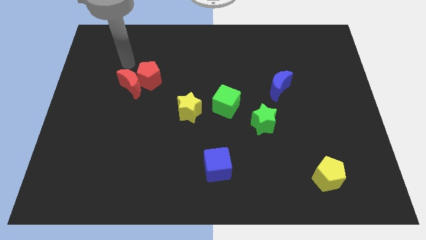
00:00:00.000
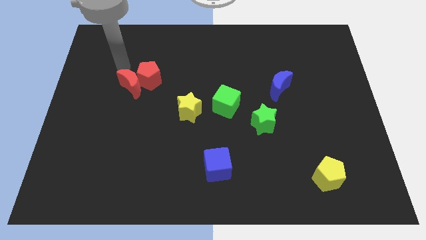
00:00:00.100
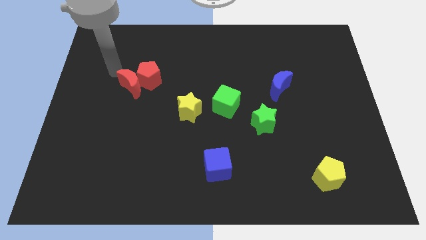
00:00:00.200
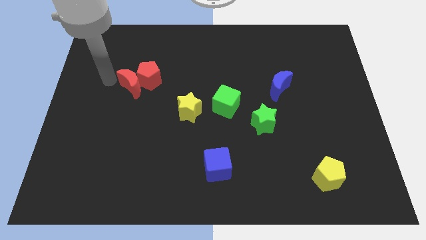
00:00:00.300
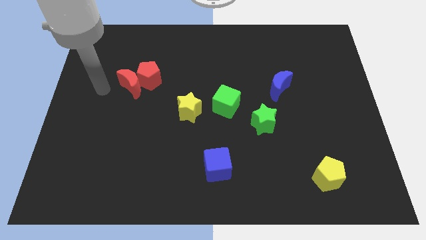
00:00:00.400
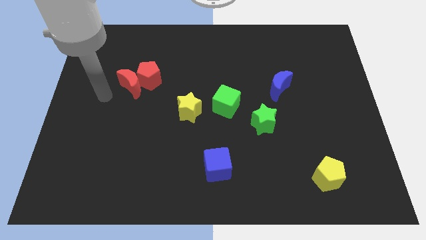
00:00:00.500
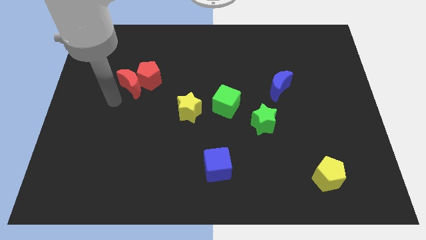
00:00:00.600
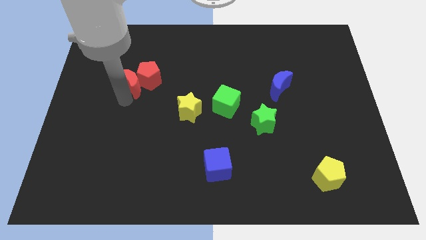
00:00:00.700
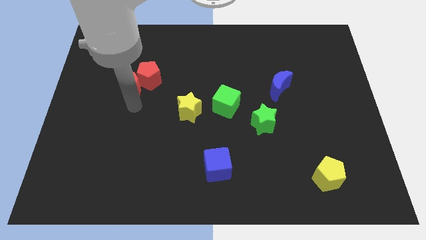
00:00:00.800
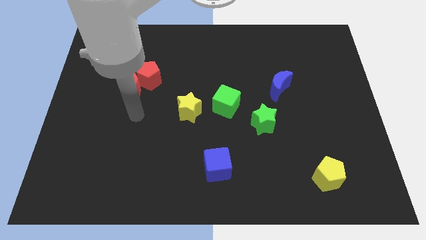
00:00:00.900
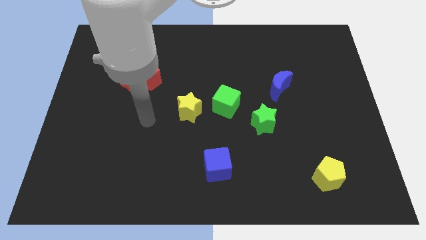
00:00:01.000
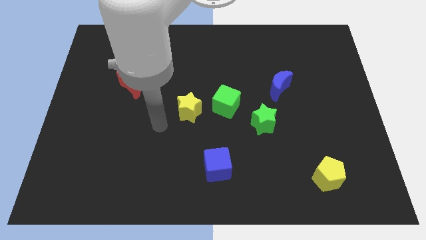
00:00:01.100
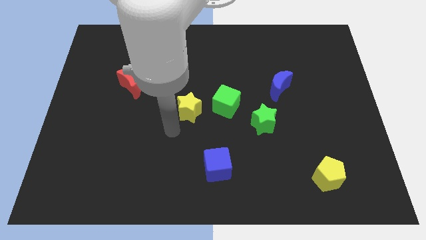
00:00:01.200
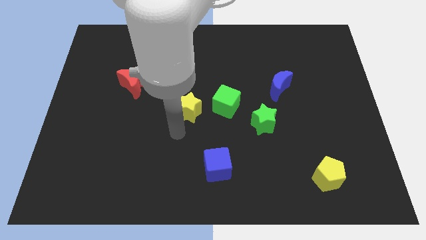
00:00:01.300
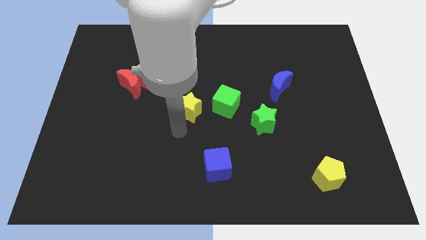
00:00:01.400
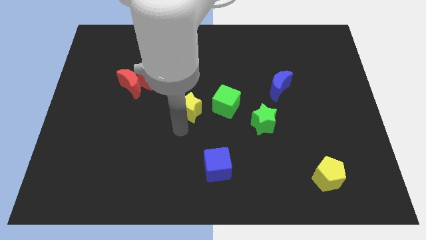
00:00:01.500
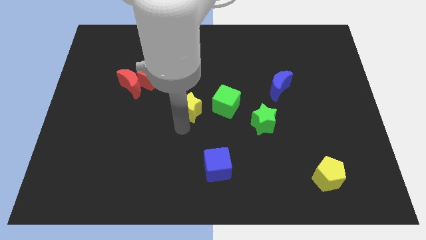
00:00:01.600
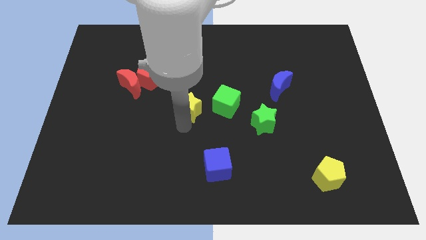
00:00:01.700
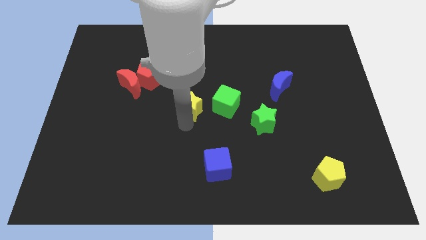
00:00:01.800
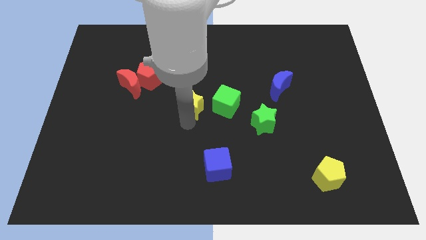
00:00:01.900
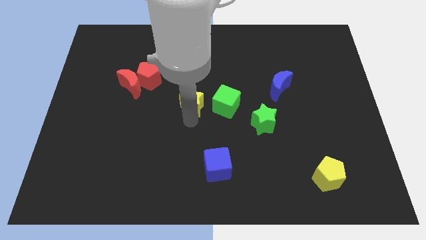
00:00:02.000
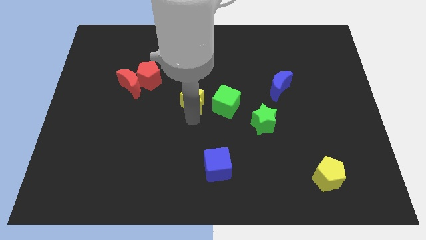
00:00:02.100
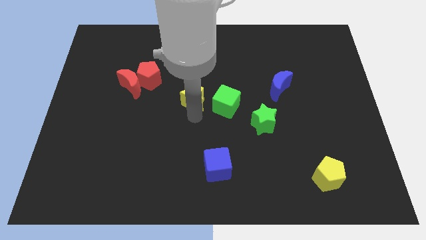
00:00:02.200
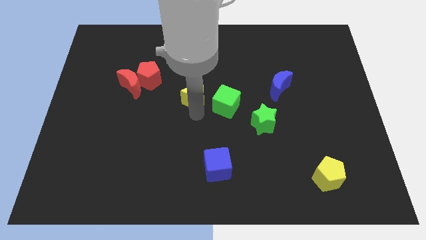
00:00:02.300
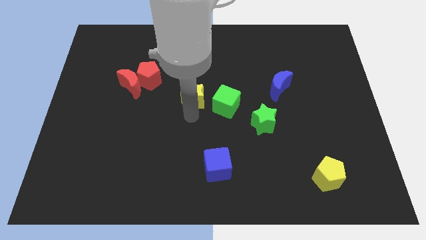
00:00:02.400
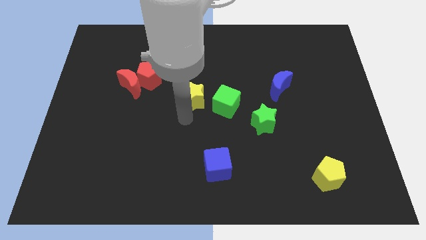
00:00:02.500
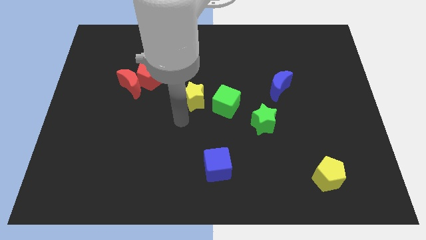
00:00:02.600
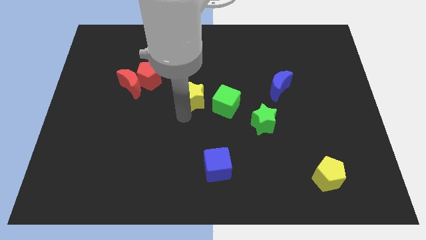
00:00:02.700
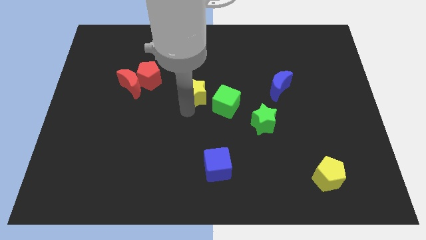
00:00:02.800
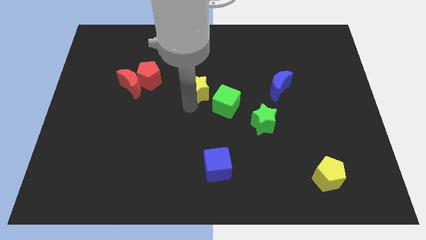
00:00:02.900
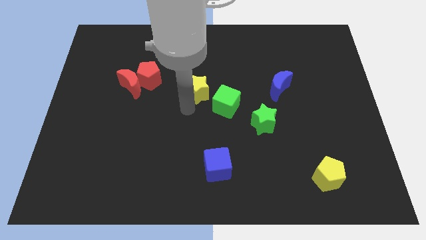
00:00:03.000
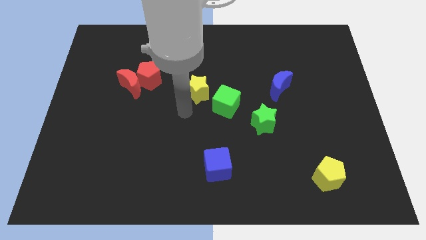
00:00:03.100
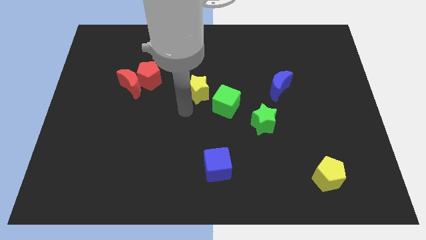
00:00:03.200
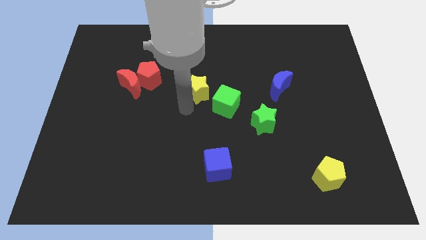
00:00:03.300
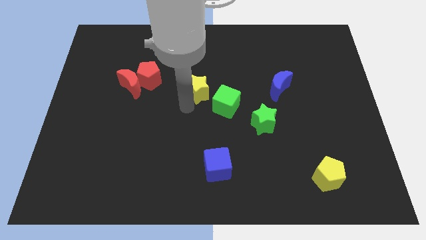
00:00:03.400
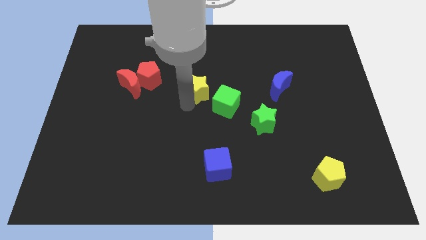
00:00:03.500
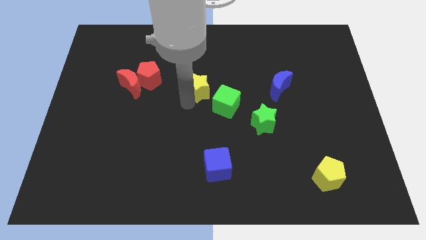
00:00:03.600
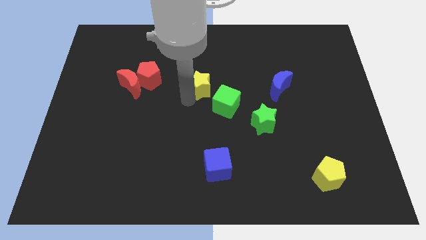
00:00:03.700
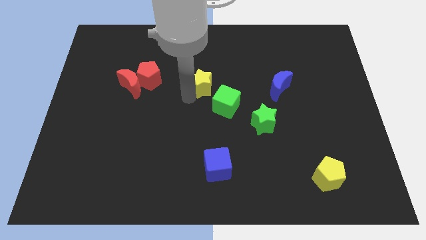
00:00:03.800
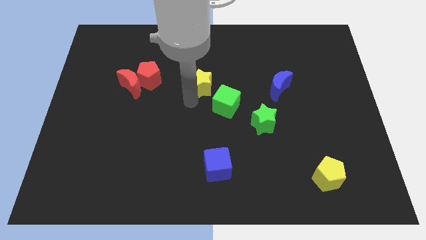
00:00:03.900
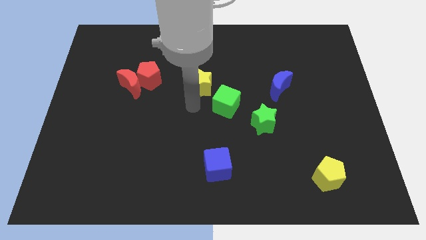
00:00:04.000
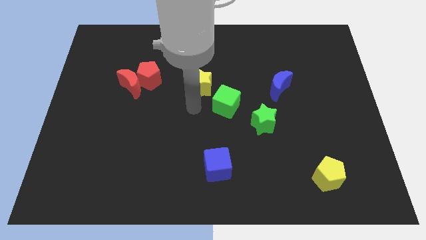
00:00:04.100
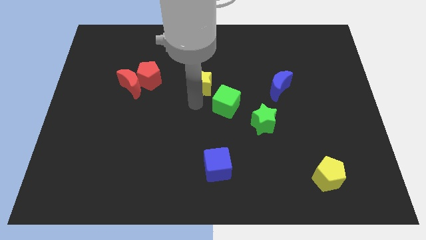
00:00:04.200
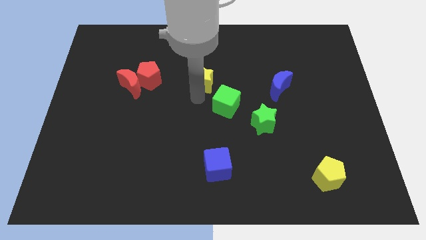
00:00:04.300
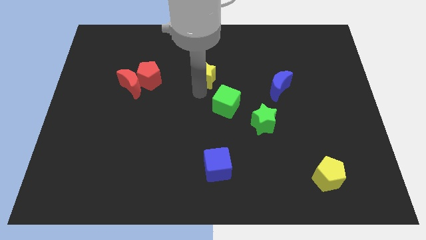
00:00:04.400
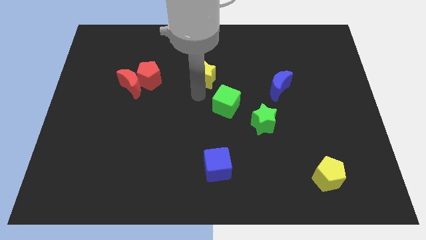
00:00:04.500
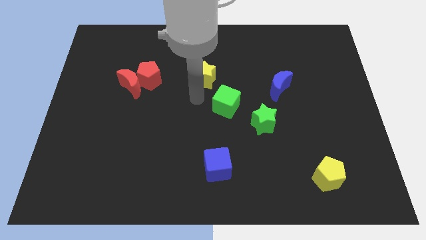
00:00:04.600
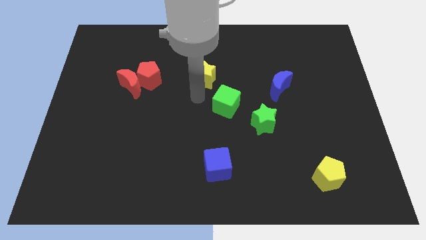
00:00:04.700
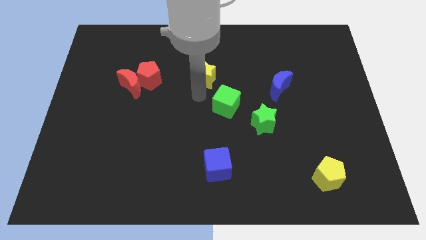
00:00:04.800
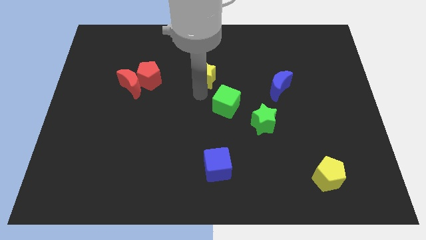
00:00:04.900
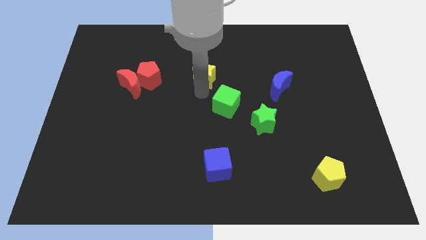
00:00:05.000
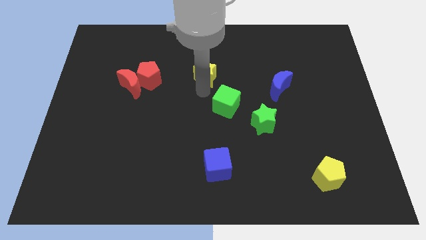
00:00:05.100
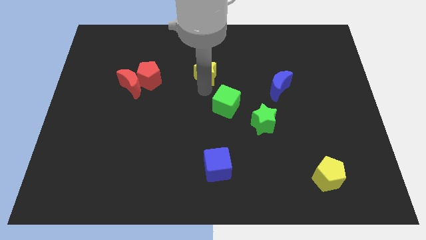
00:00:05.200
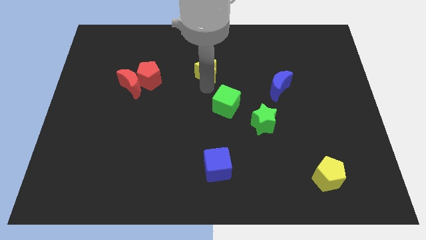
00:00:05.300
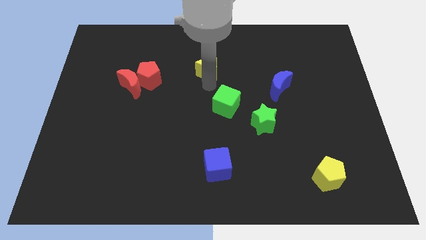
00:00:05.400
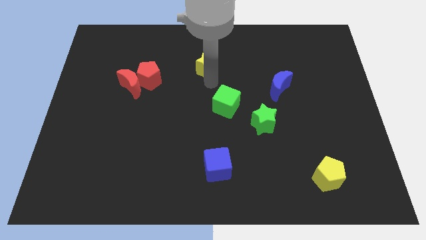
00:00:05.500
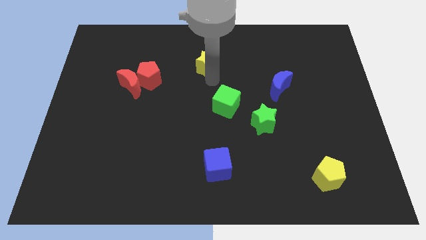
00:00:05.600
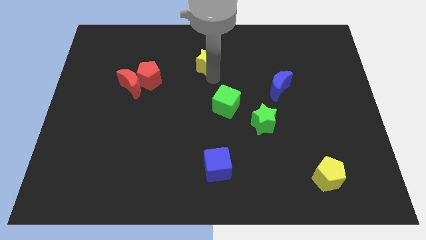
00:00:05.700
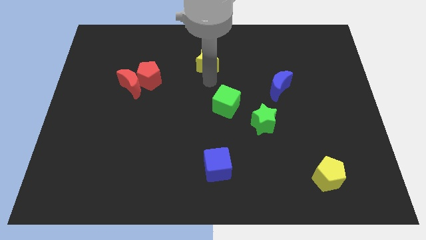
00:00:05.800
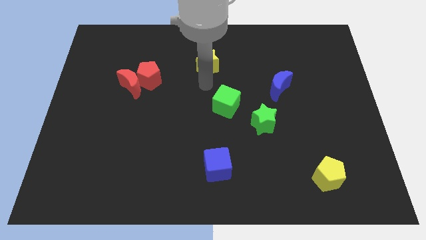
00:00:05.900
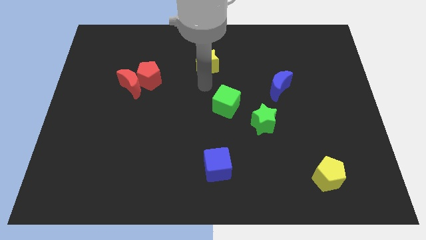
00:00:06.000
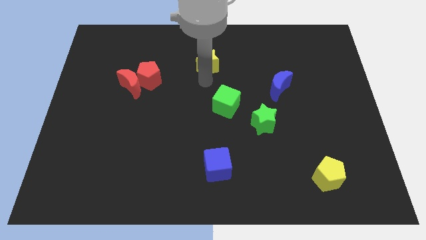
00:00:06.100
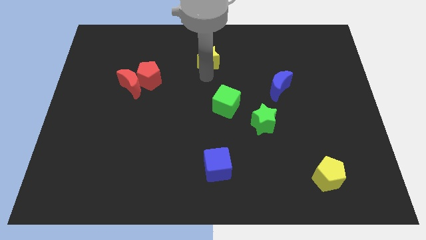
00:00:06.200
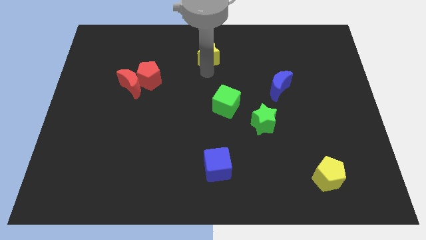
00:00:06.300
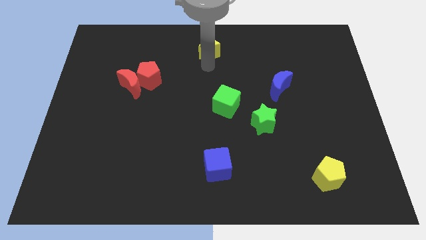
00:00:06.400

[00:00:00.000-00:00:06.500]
slide the yellow star to the top side

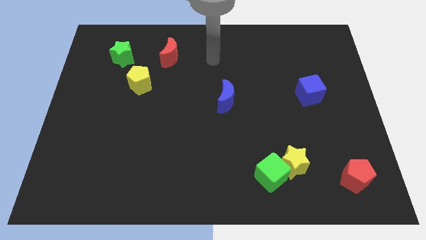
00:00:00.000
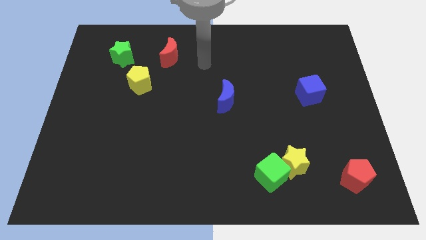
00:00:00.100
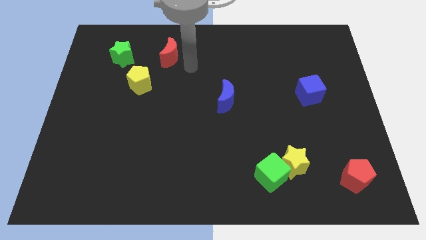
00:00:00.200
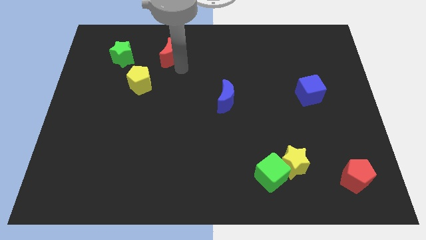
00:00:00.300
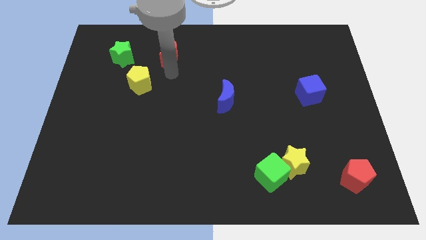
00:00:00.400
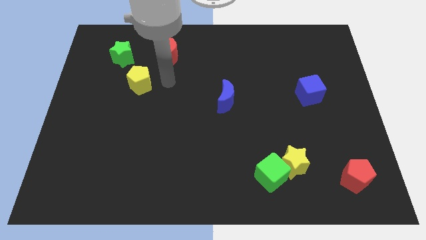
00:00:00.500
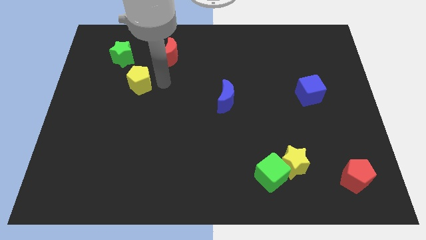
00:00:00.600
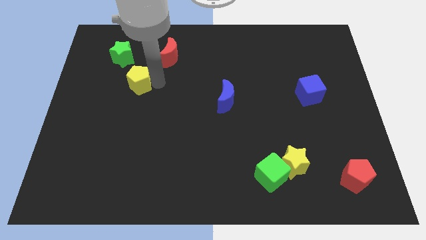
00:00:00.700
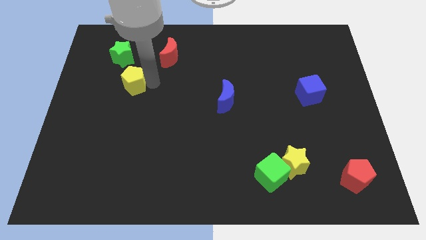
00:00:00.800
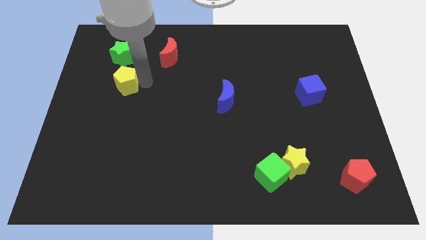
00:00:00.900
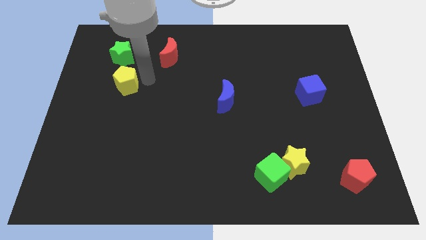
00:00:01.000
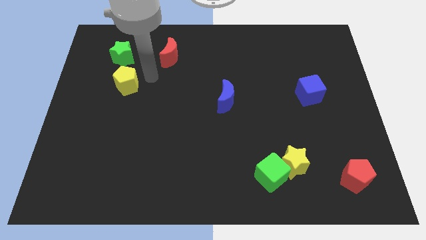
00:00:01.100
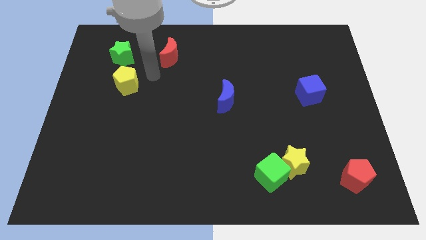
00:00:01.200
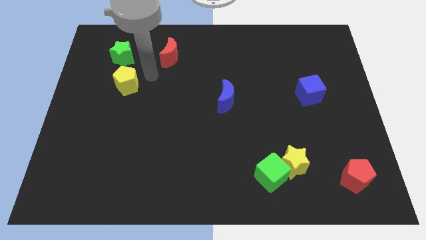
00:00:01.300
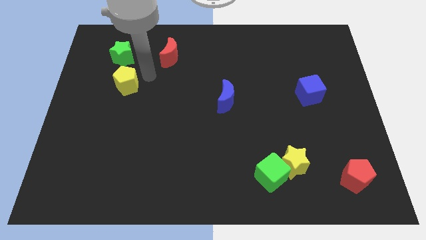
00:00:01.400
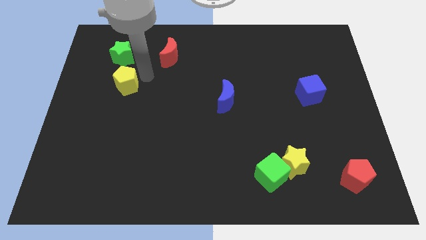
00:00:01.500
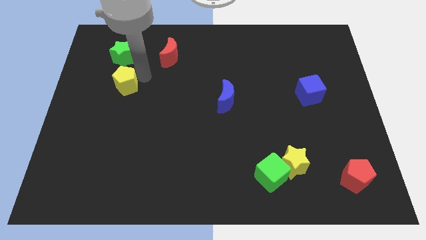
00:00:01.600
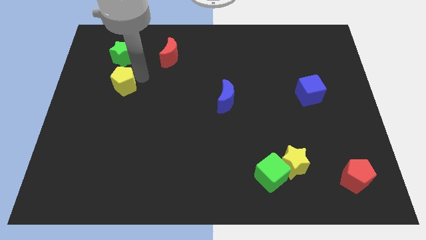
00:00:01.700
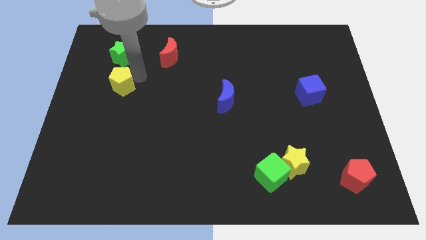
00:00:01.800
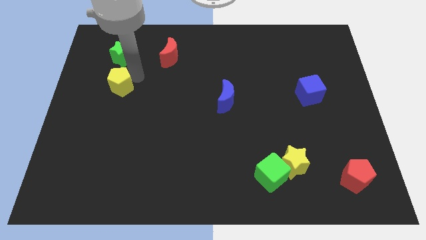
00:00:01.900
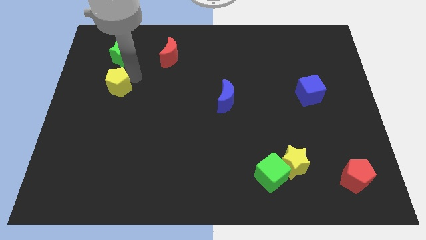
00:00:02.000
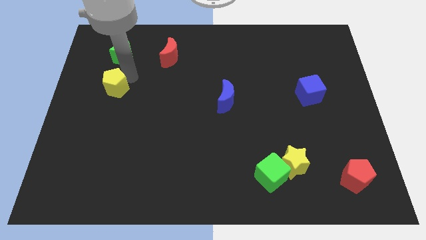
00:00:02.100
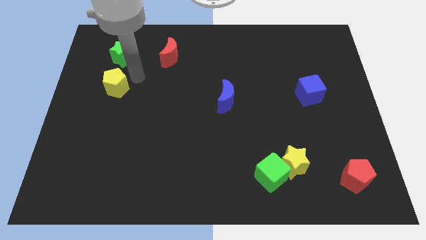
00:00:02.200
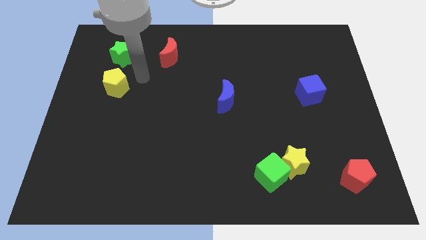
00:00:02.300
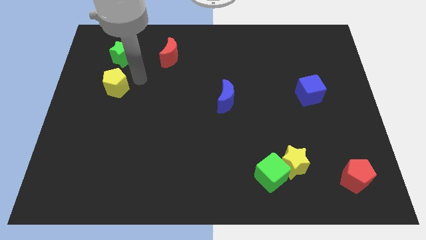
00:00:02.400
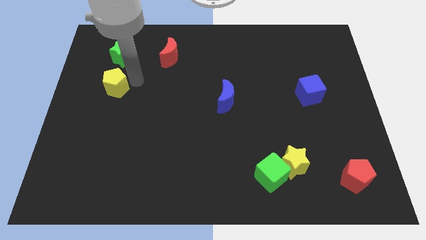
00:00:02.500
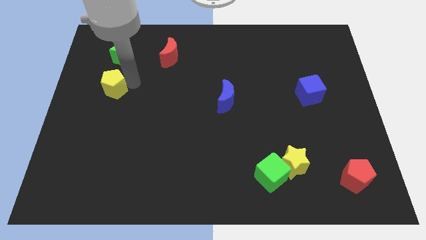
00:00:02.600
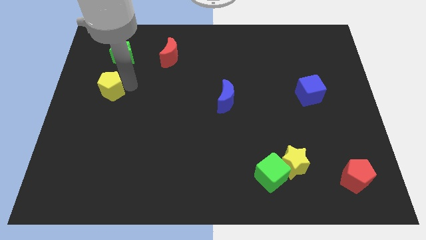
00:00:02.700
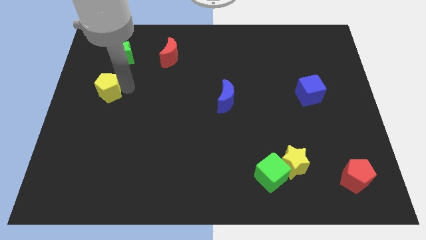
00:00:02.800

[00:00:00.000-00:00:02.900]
put the yellow pentagon to the left side
